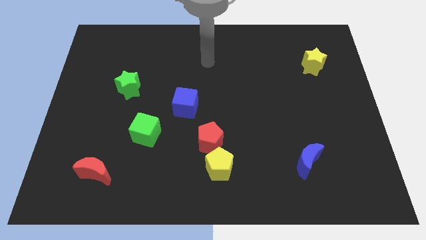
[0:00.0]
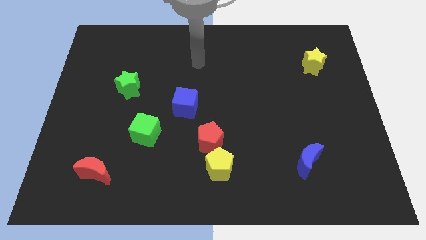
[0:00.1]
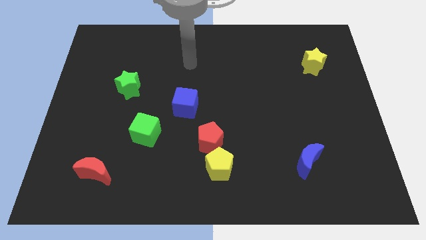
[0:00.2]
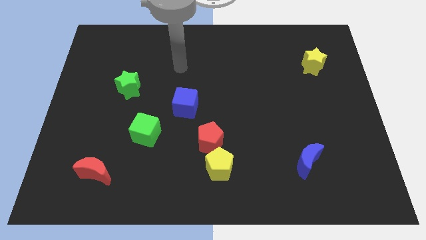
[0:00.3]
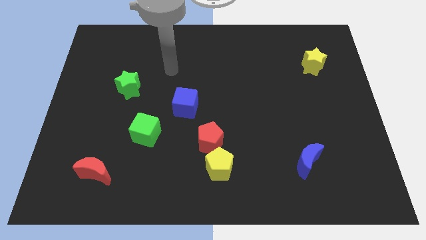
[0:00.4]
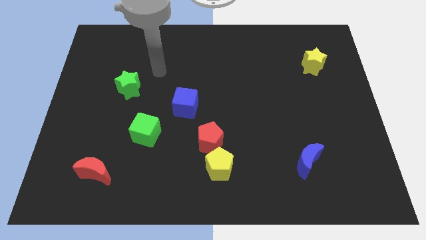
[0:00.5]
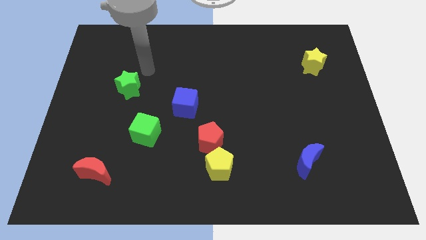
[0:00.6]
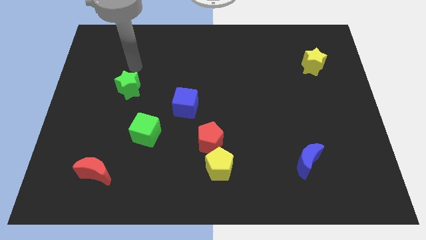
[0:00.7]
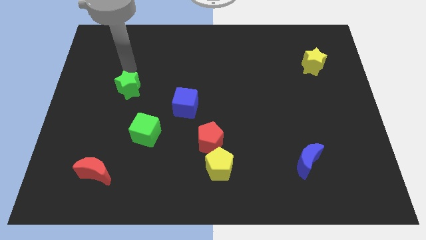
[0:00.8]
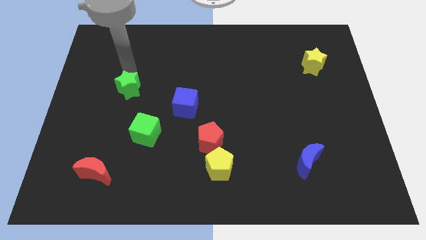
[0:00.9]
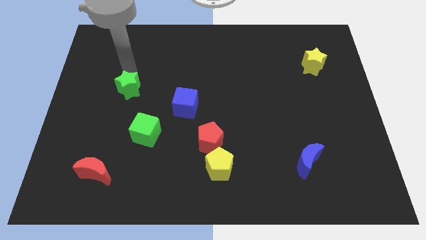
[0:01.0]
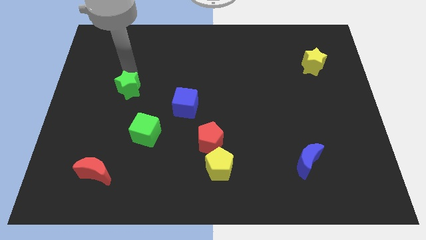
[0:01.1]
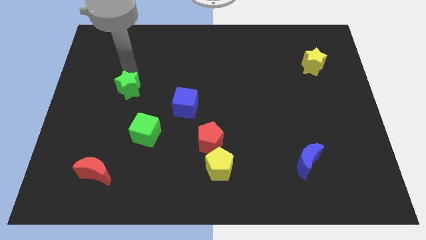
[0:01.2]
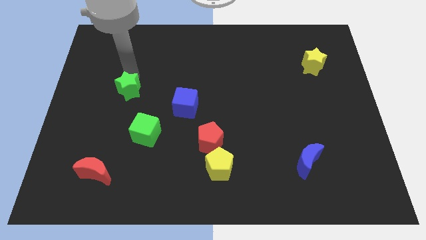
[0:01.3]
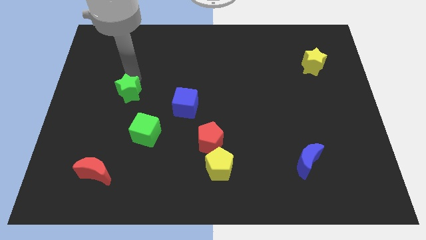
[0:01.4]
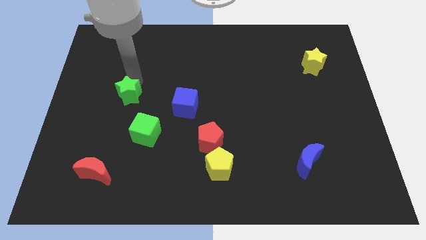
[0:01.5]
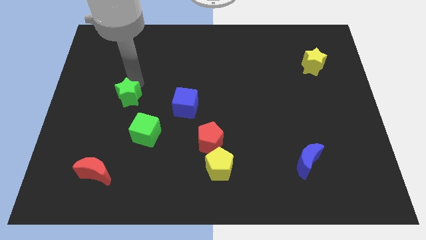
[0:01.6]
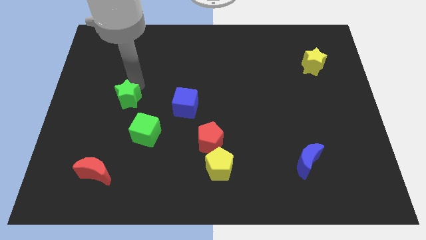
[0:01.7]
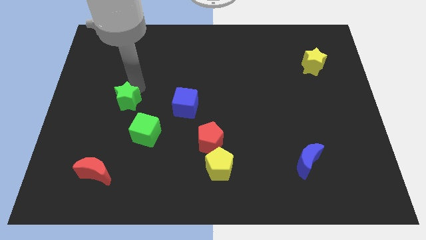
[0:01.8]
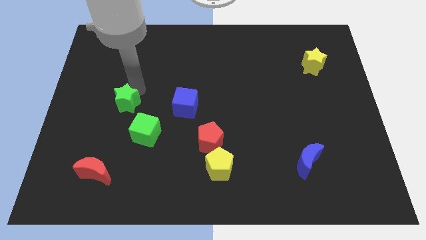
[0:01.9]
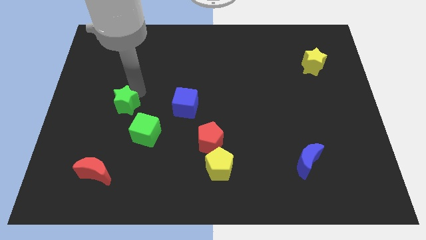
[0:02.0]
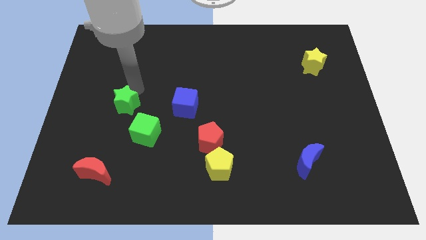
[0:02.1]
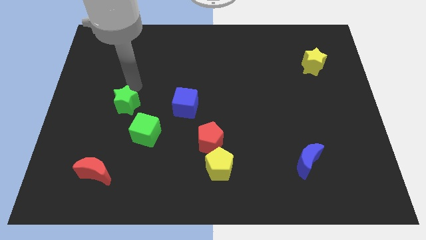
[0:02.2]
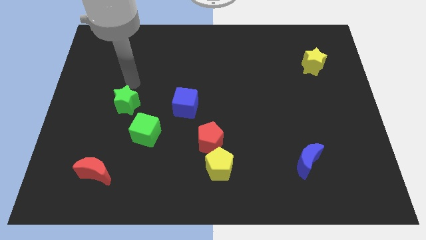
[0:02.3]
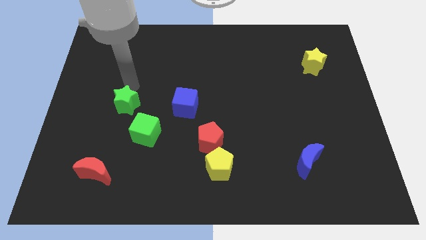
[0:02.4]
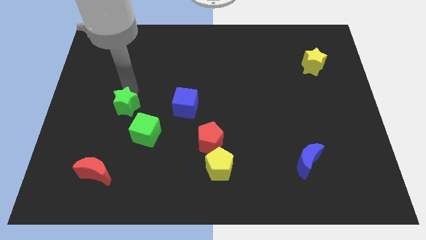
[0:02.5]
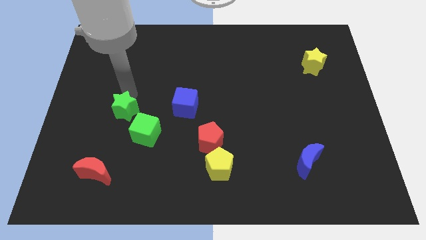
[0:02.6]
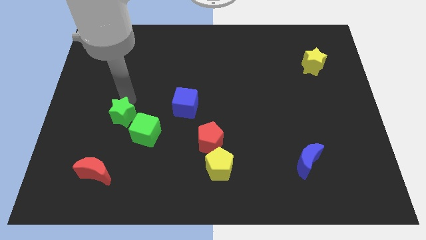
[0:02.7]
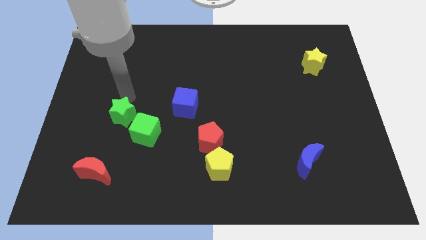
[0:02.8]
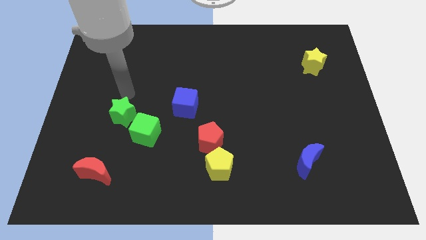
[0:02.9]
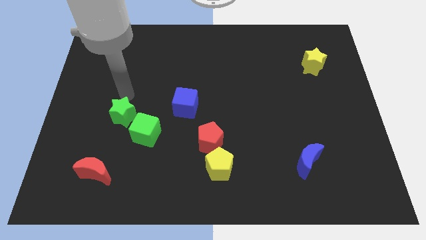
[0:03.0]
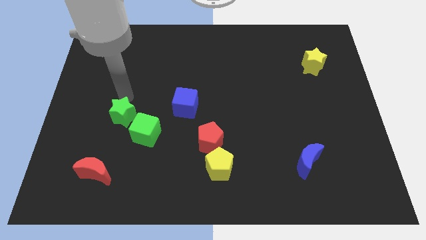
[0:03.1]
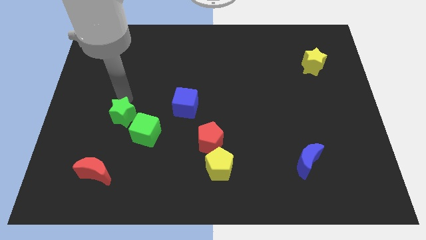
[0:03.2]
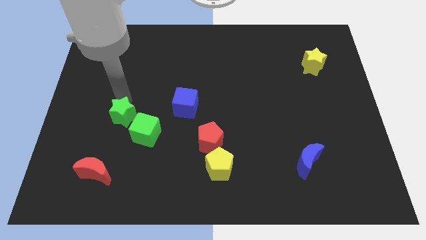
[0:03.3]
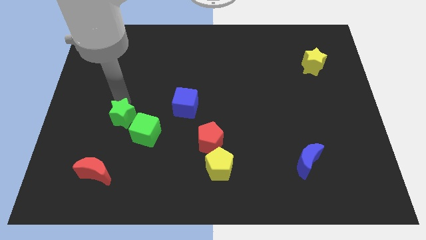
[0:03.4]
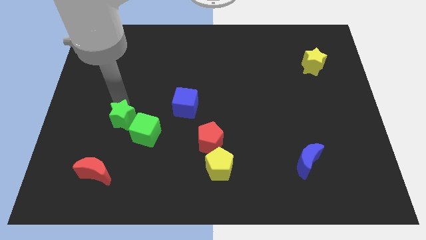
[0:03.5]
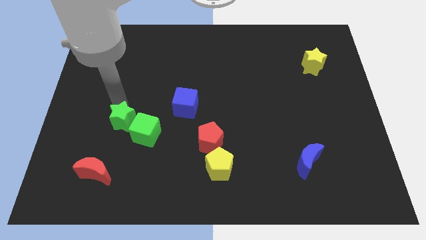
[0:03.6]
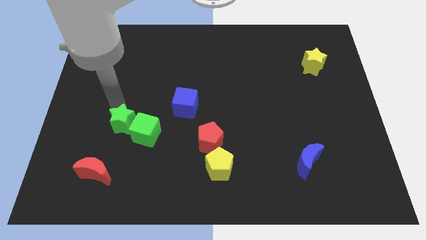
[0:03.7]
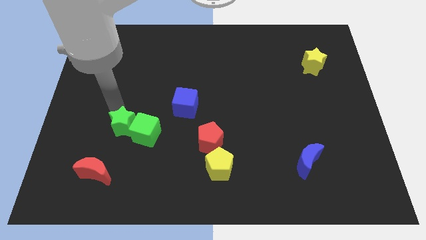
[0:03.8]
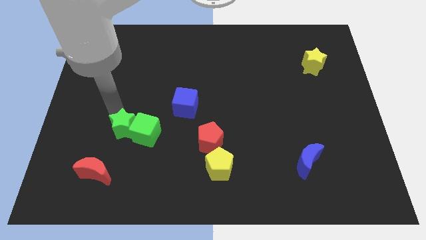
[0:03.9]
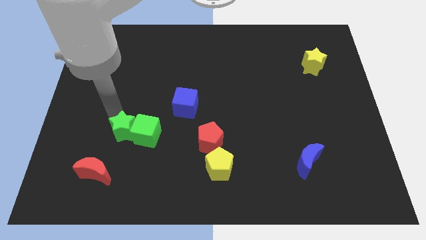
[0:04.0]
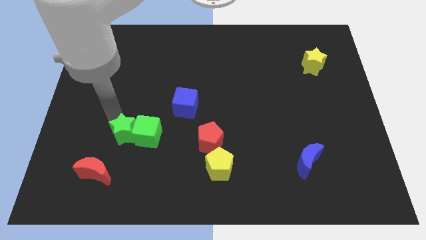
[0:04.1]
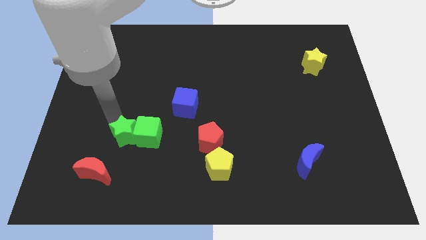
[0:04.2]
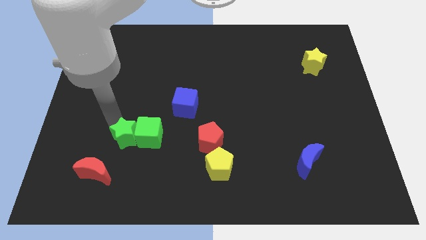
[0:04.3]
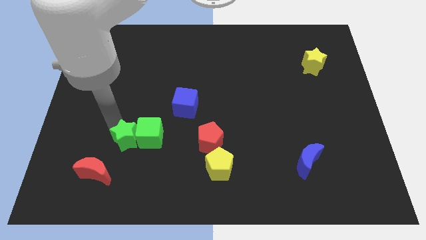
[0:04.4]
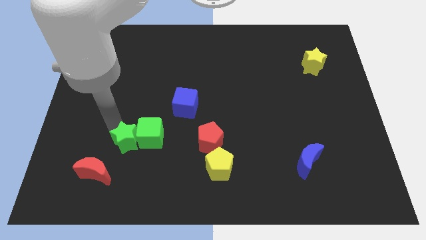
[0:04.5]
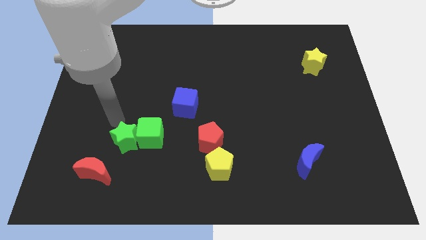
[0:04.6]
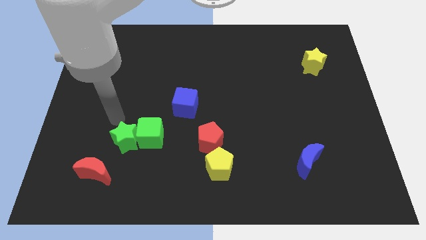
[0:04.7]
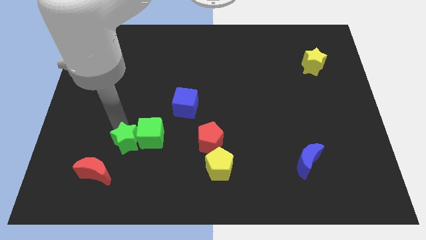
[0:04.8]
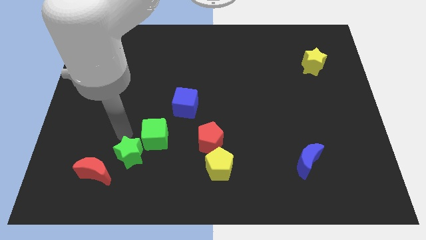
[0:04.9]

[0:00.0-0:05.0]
put the green star below the green cube

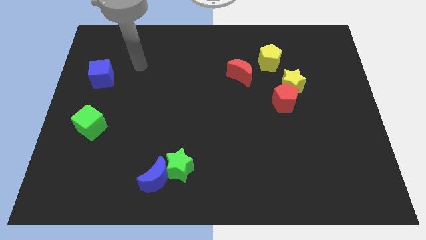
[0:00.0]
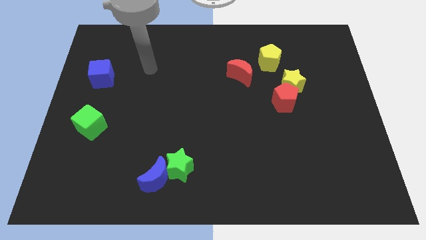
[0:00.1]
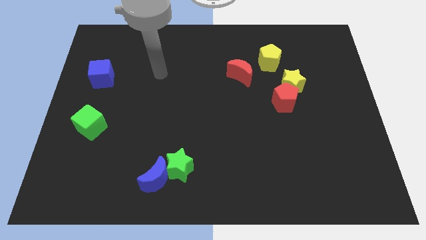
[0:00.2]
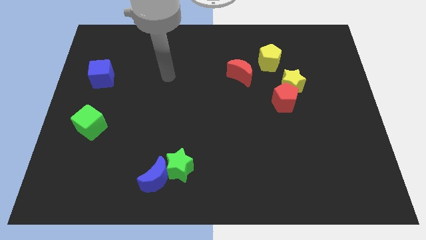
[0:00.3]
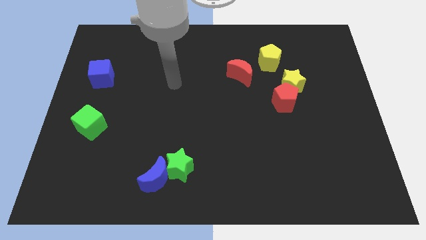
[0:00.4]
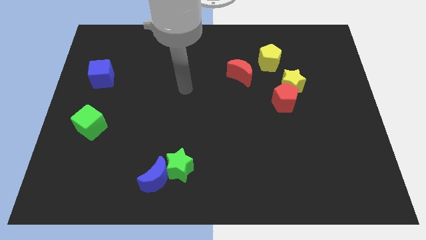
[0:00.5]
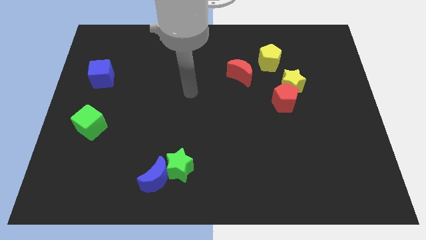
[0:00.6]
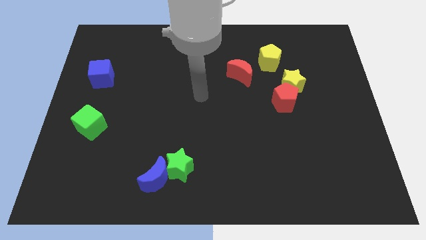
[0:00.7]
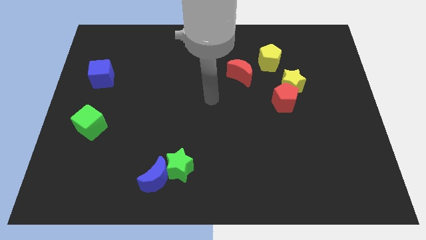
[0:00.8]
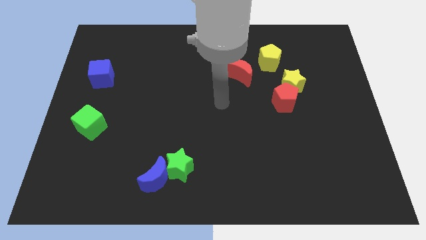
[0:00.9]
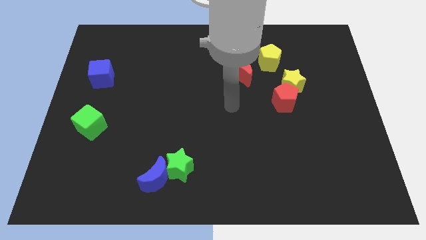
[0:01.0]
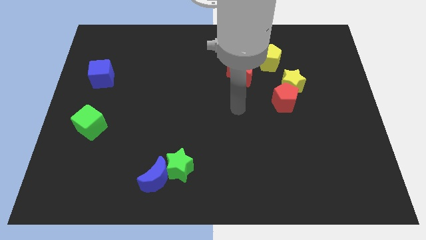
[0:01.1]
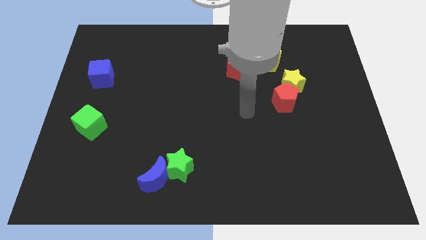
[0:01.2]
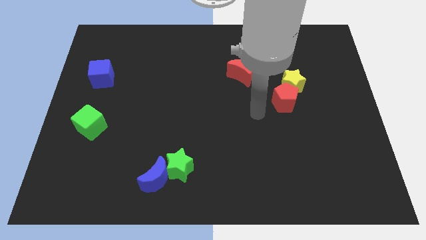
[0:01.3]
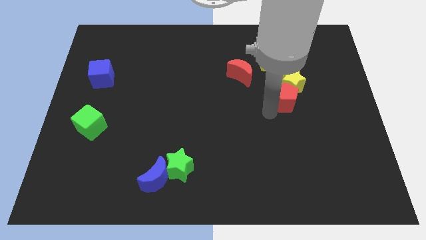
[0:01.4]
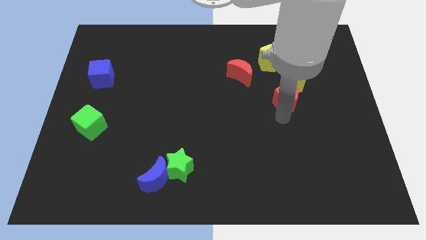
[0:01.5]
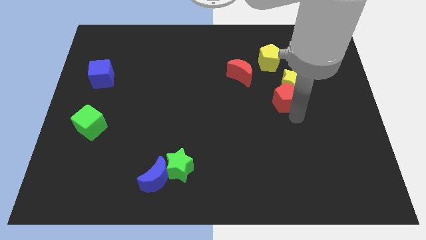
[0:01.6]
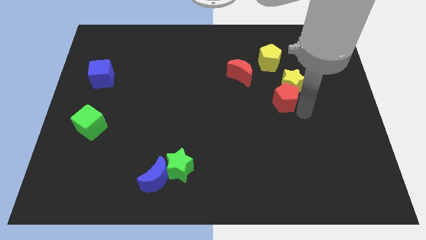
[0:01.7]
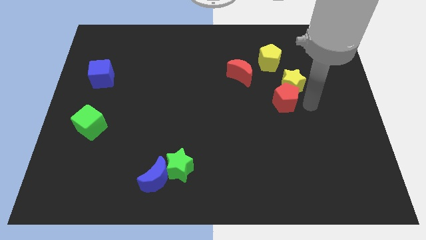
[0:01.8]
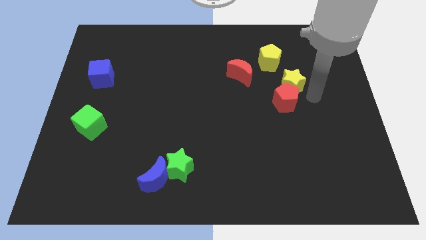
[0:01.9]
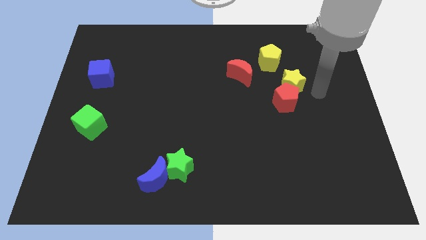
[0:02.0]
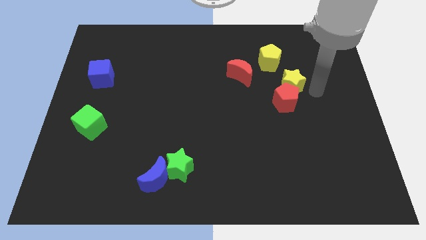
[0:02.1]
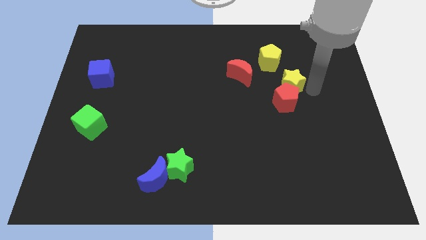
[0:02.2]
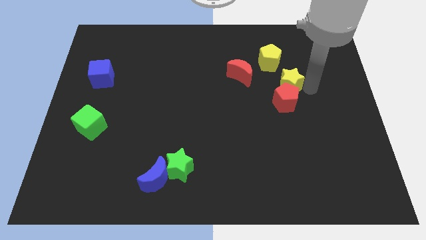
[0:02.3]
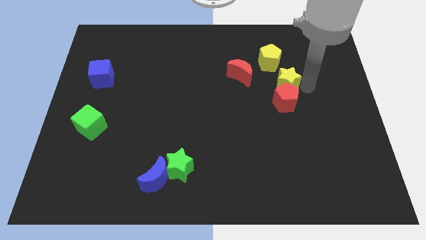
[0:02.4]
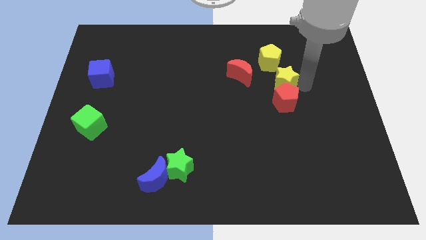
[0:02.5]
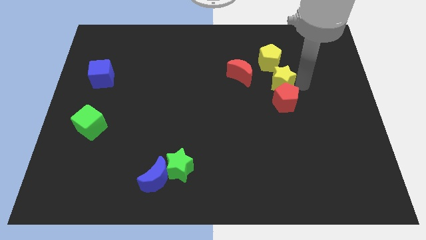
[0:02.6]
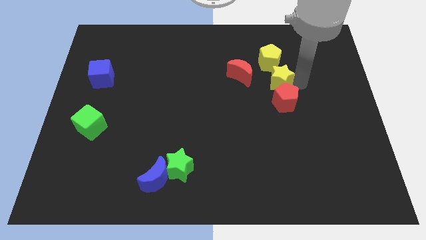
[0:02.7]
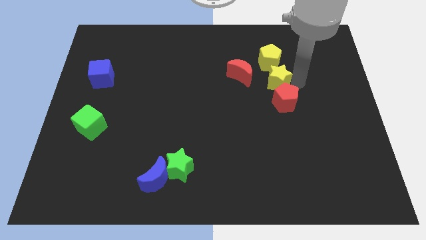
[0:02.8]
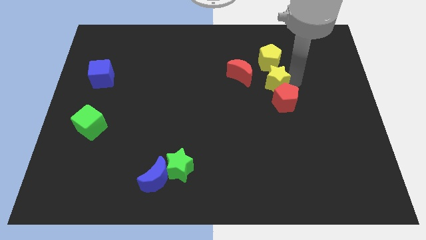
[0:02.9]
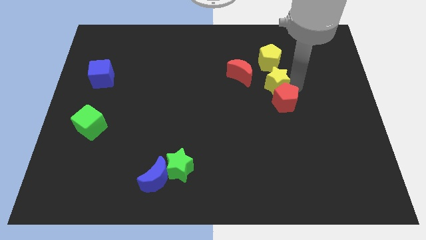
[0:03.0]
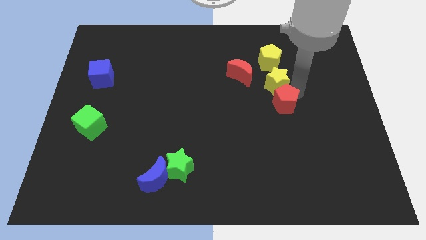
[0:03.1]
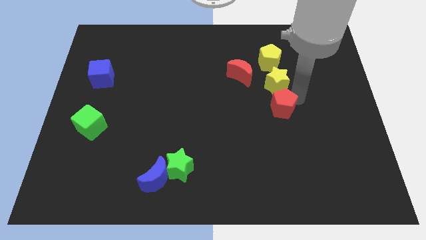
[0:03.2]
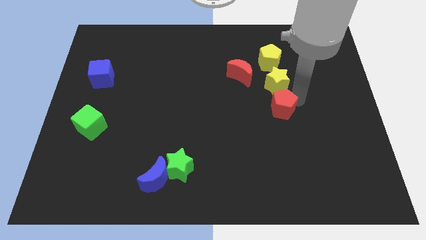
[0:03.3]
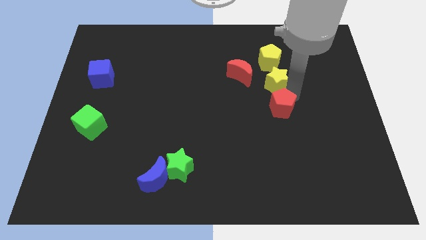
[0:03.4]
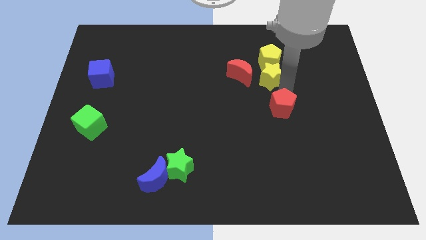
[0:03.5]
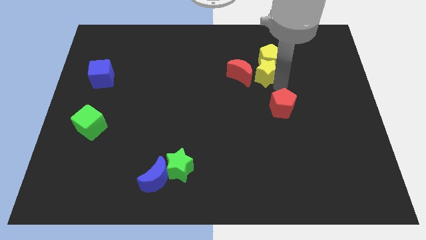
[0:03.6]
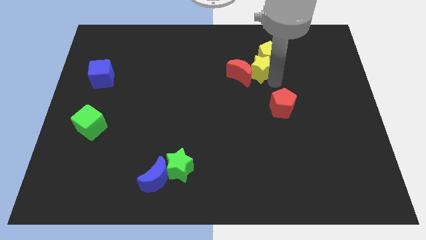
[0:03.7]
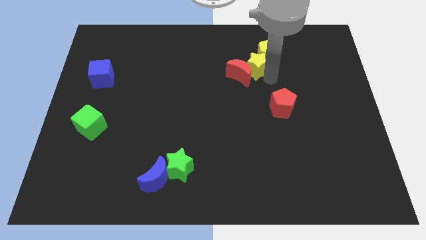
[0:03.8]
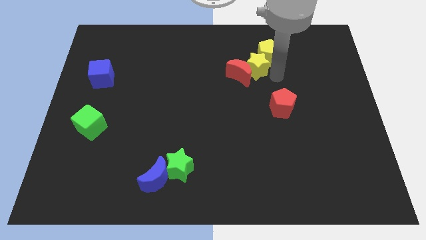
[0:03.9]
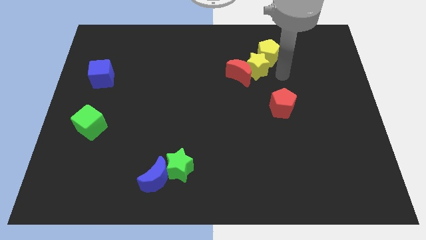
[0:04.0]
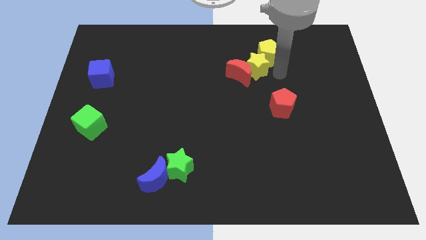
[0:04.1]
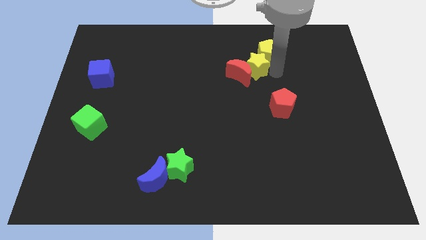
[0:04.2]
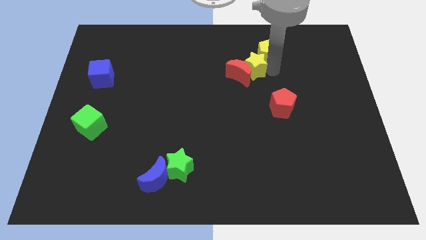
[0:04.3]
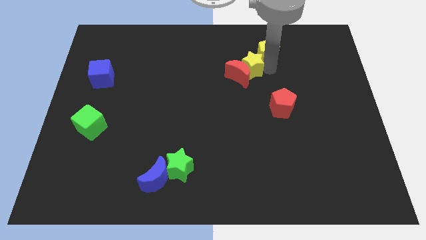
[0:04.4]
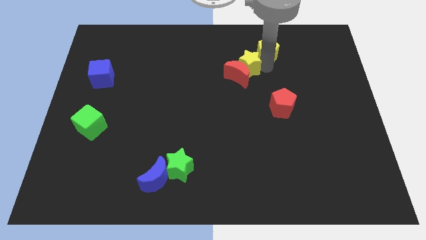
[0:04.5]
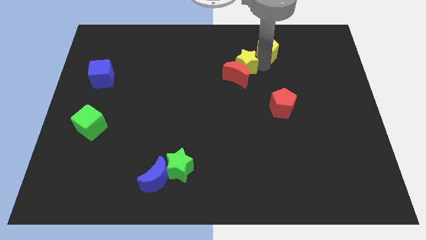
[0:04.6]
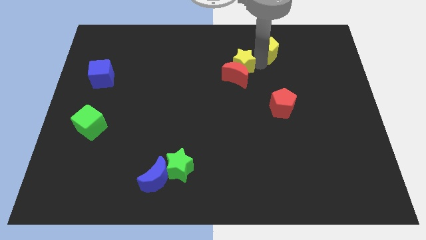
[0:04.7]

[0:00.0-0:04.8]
put the yellow star to the top left of the red moon
